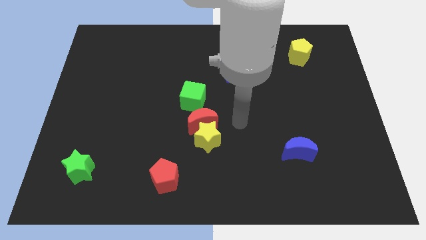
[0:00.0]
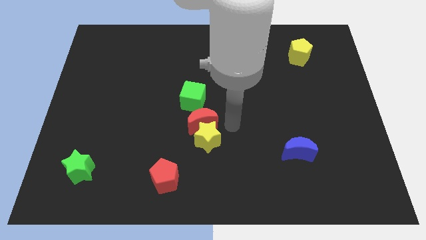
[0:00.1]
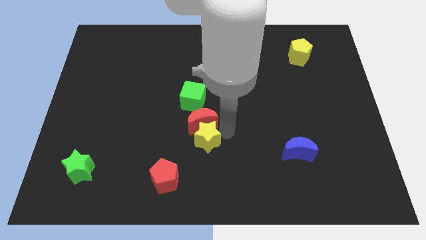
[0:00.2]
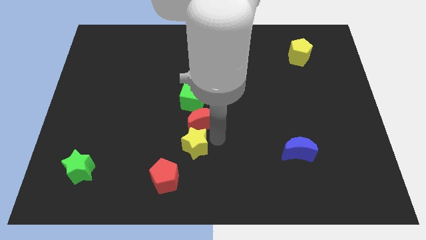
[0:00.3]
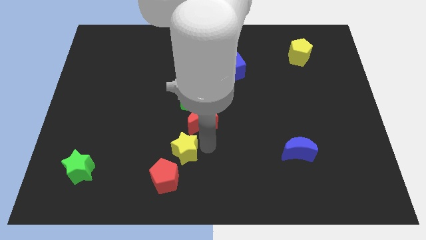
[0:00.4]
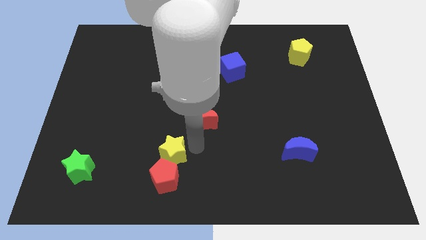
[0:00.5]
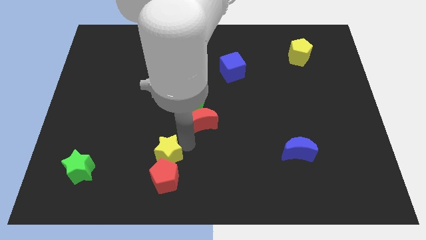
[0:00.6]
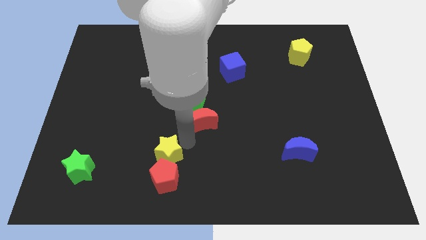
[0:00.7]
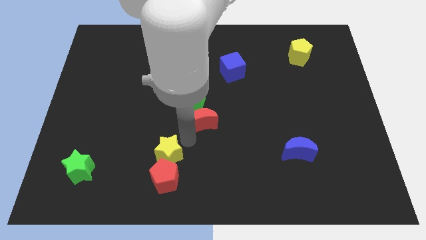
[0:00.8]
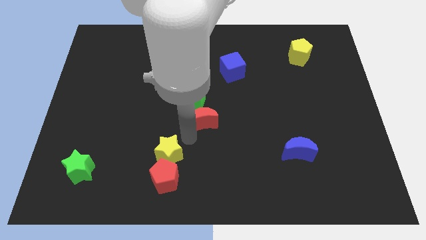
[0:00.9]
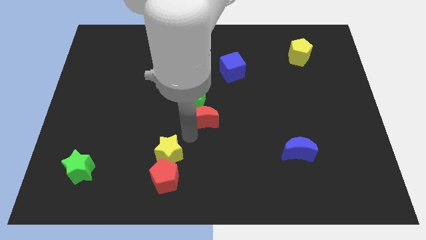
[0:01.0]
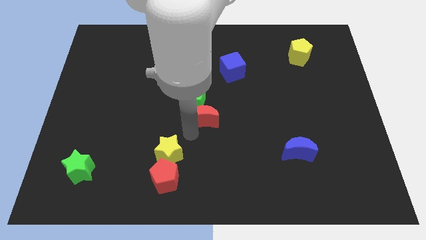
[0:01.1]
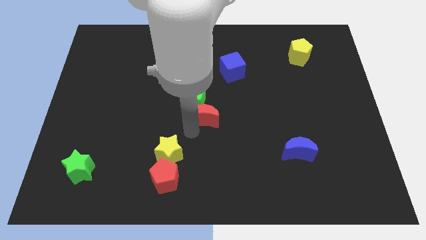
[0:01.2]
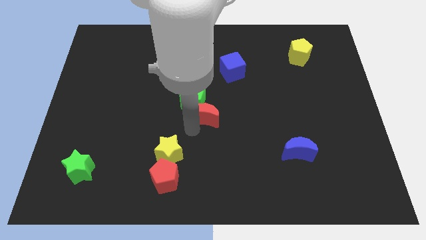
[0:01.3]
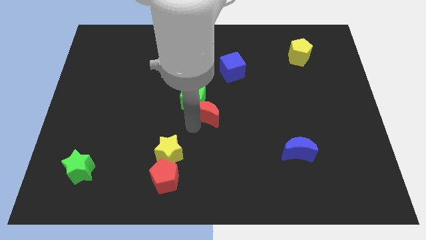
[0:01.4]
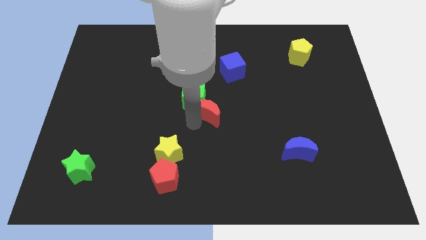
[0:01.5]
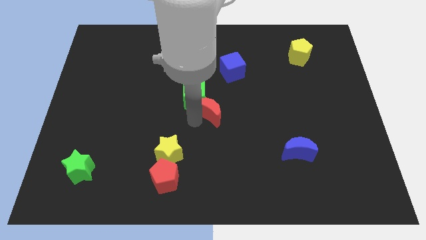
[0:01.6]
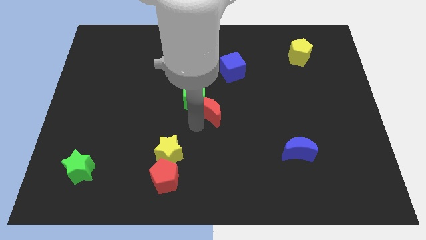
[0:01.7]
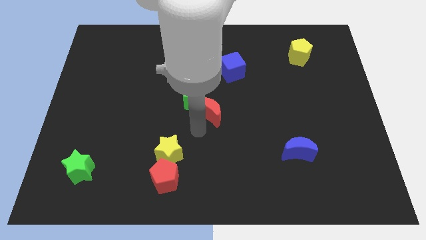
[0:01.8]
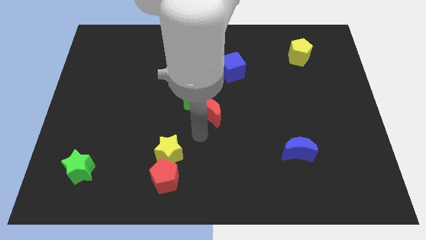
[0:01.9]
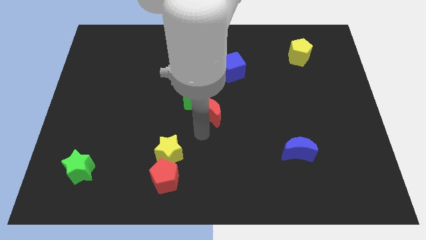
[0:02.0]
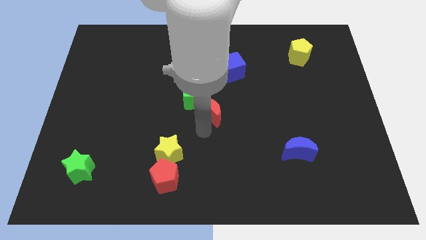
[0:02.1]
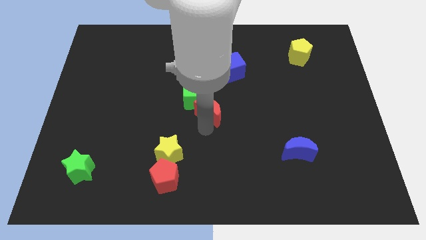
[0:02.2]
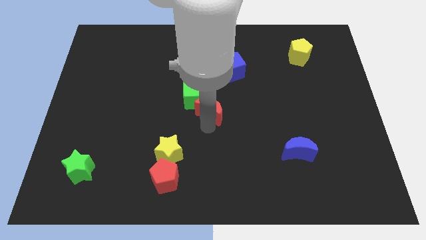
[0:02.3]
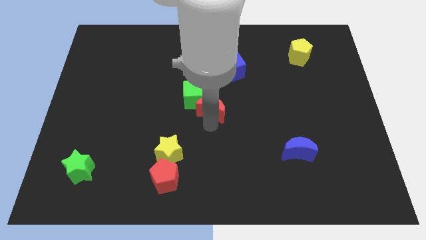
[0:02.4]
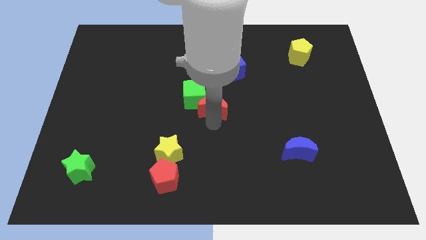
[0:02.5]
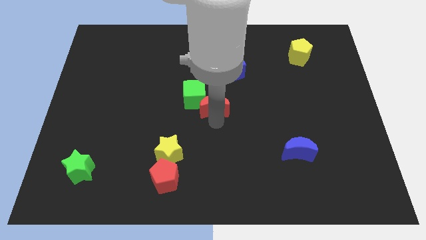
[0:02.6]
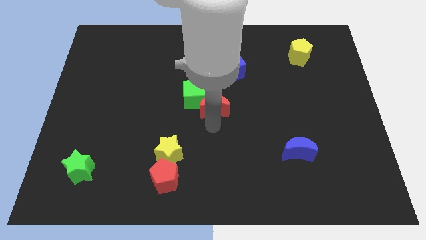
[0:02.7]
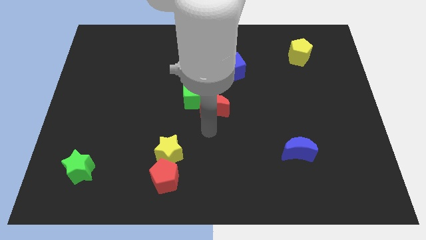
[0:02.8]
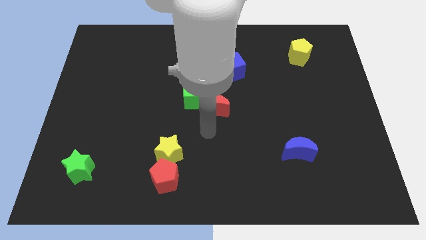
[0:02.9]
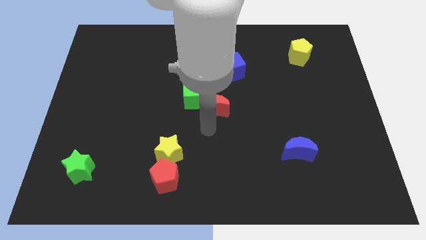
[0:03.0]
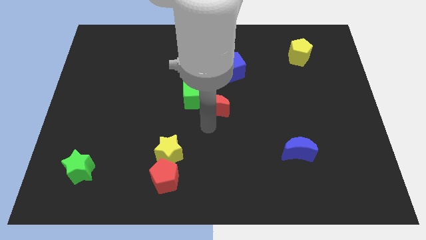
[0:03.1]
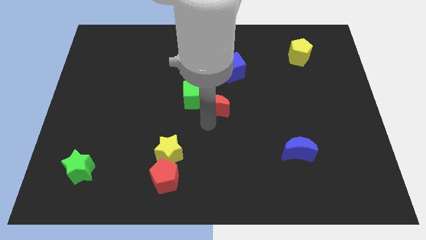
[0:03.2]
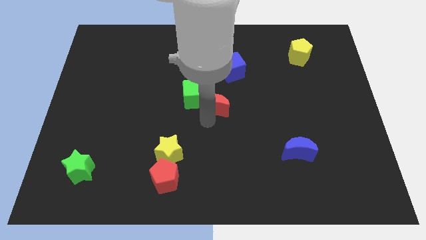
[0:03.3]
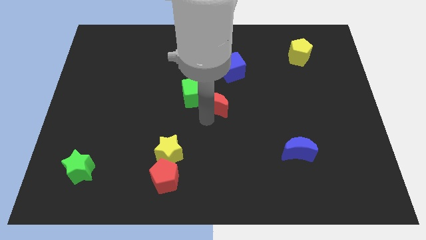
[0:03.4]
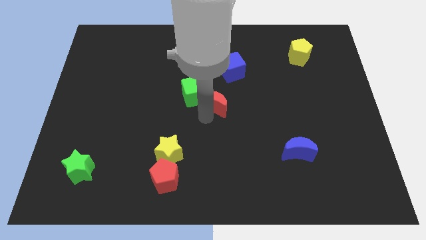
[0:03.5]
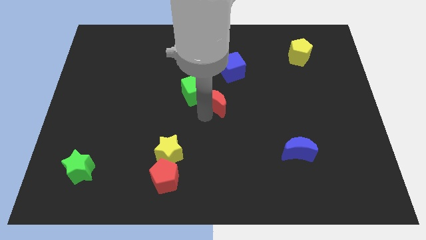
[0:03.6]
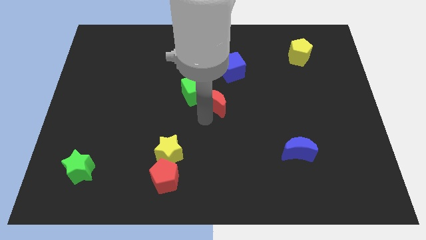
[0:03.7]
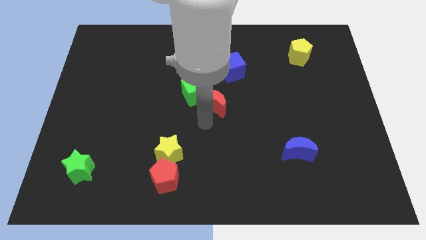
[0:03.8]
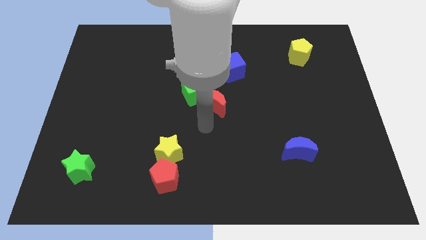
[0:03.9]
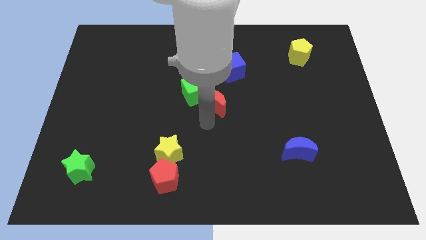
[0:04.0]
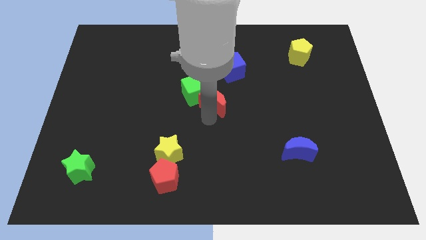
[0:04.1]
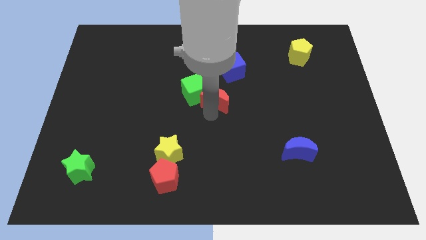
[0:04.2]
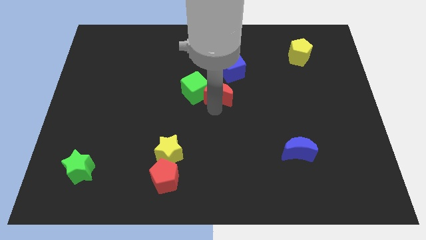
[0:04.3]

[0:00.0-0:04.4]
push the red moon upwards slightly

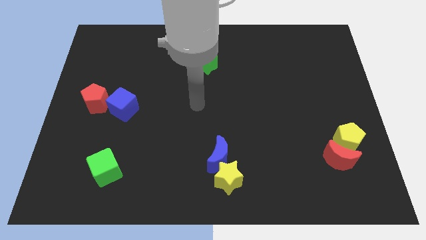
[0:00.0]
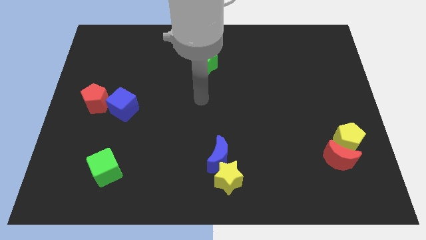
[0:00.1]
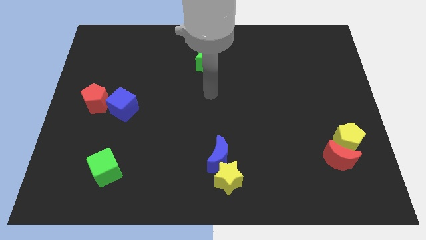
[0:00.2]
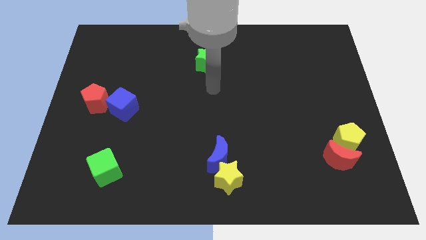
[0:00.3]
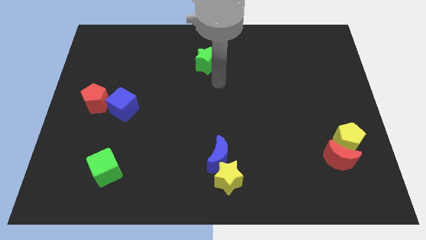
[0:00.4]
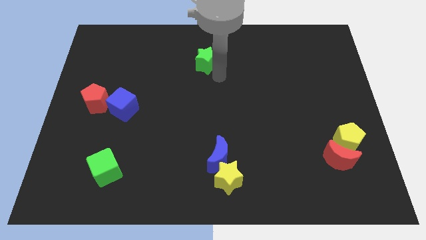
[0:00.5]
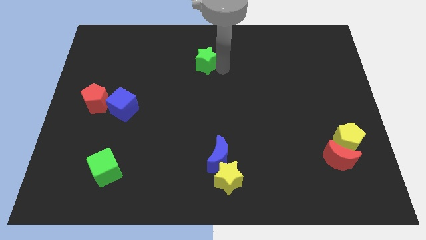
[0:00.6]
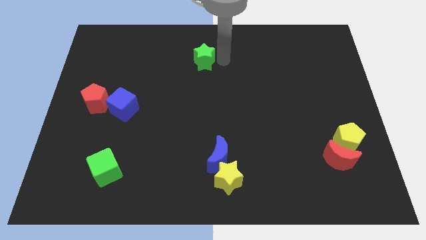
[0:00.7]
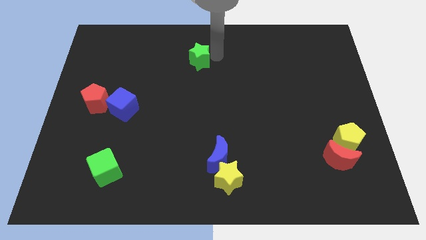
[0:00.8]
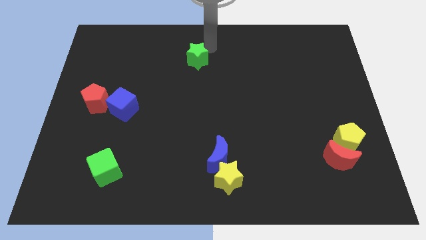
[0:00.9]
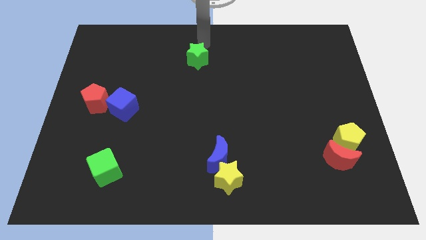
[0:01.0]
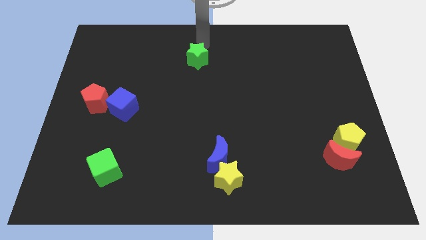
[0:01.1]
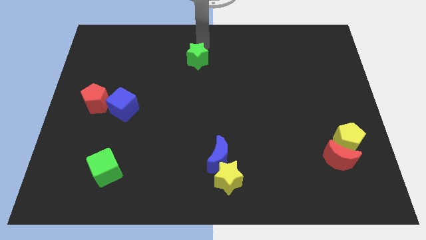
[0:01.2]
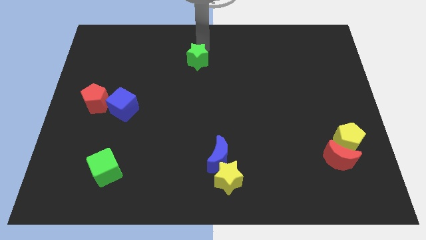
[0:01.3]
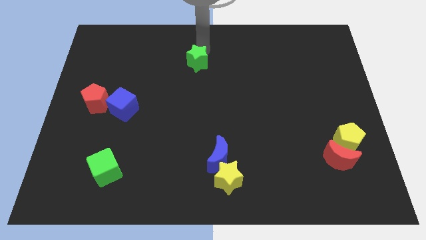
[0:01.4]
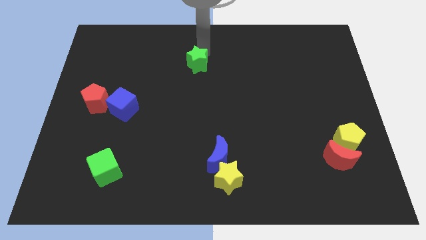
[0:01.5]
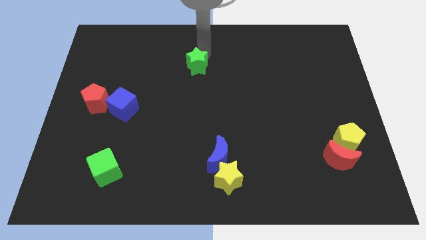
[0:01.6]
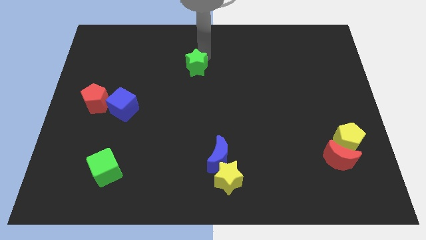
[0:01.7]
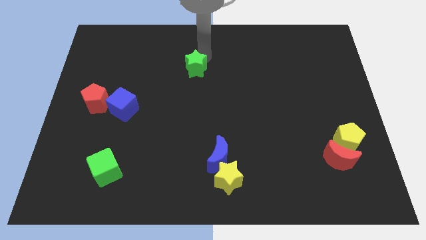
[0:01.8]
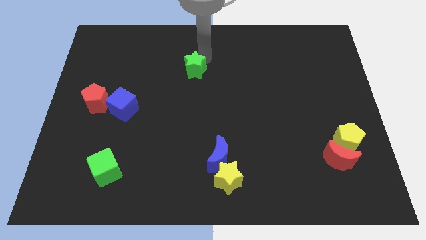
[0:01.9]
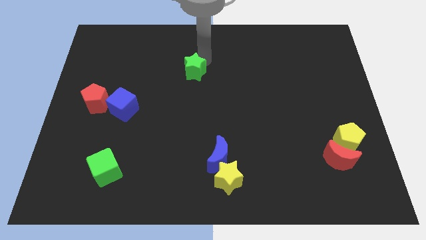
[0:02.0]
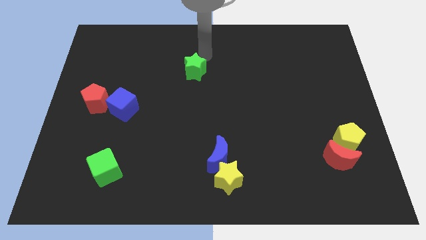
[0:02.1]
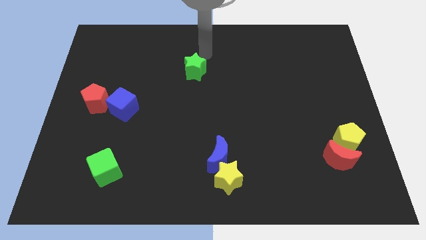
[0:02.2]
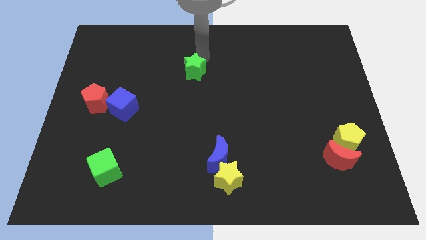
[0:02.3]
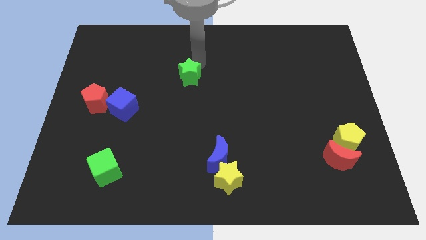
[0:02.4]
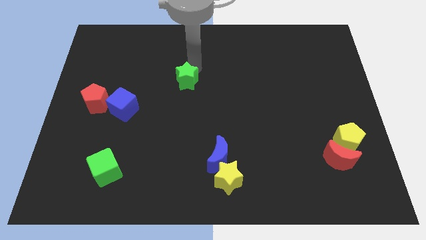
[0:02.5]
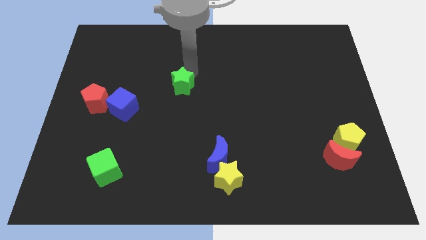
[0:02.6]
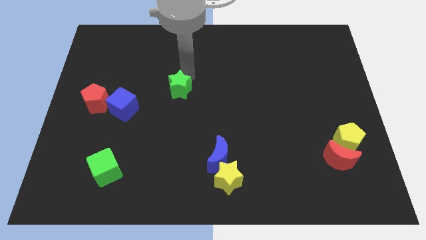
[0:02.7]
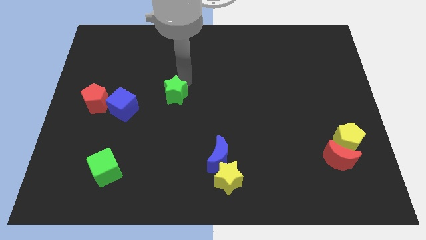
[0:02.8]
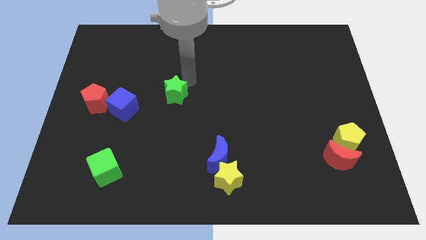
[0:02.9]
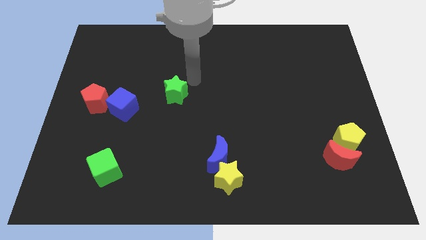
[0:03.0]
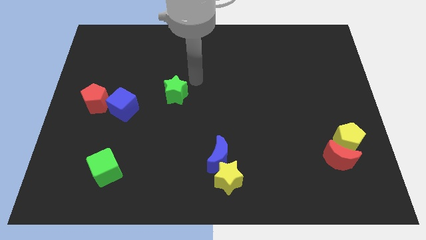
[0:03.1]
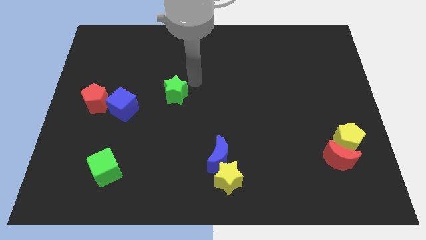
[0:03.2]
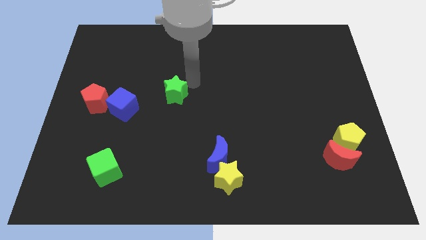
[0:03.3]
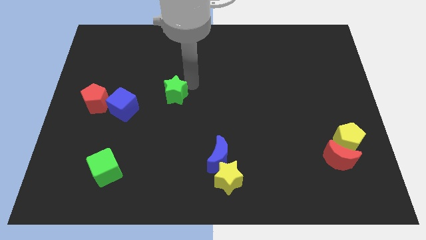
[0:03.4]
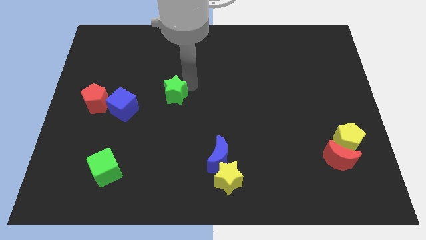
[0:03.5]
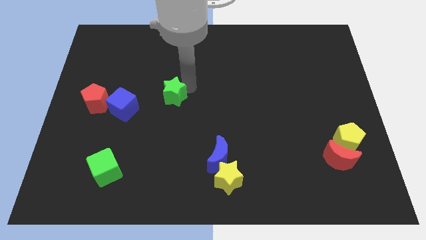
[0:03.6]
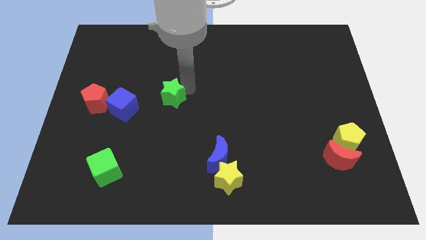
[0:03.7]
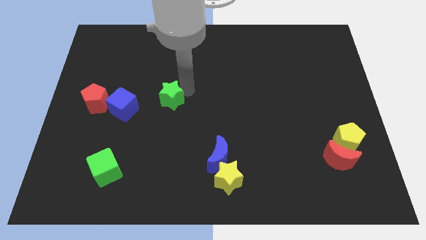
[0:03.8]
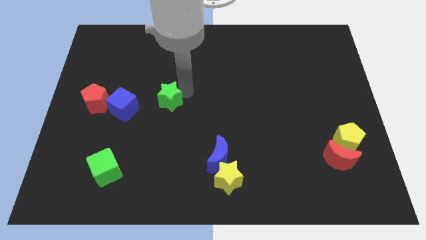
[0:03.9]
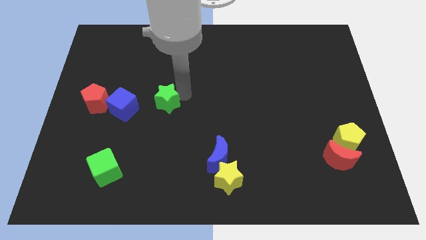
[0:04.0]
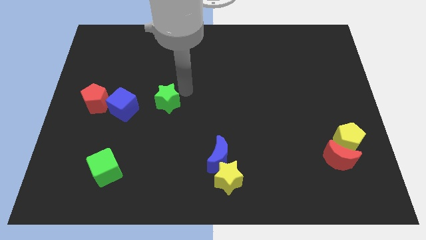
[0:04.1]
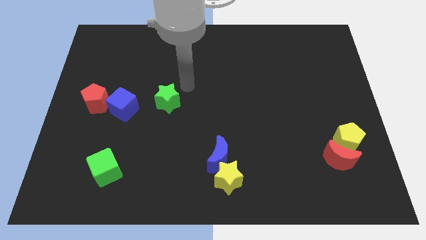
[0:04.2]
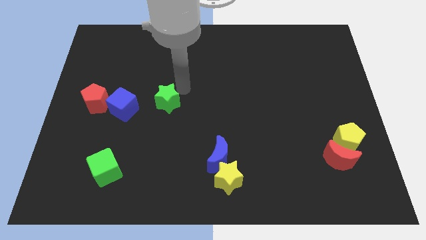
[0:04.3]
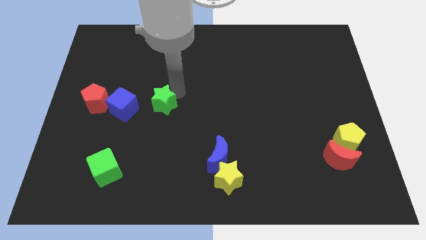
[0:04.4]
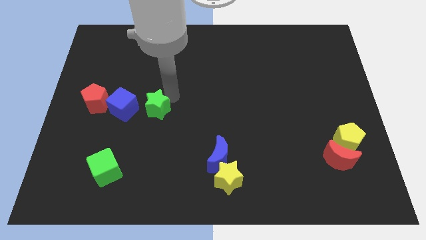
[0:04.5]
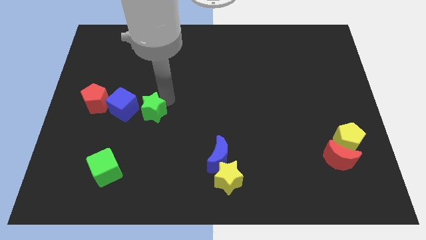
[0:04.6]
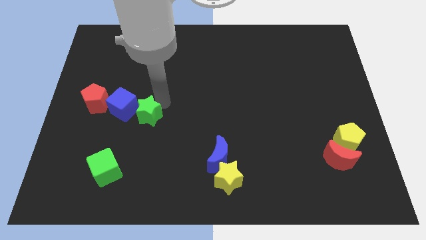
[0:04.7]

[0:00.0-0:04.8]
slide the green star downwards and left
